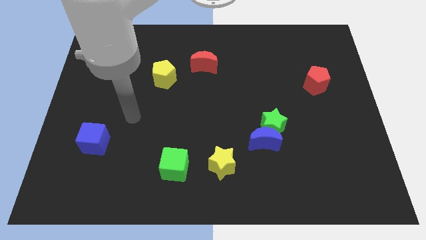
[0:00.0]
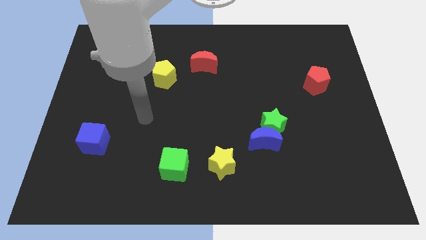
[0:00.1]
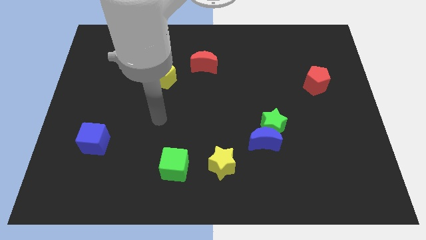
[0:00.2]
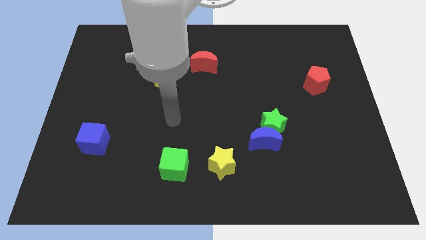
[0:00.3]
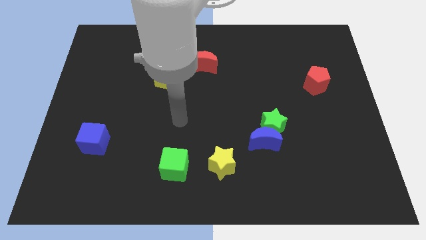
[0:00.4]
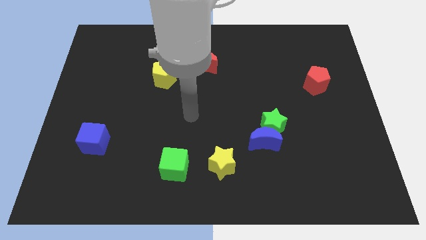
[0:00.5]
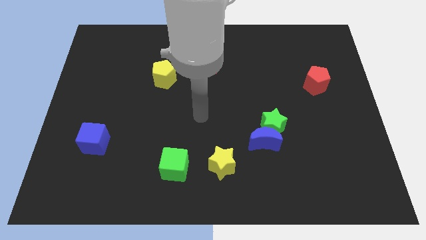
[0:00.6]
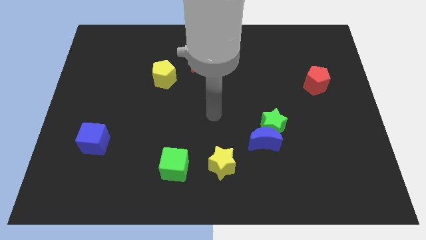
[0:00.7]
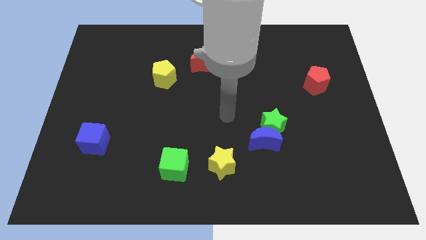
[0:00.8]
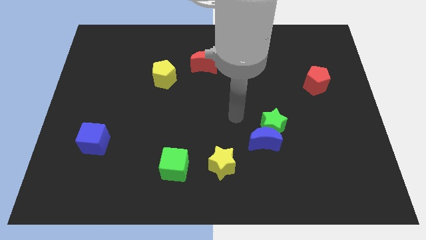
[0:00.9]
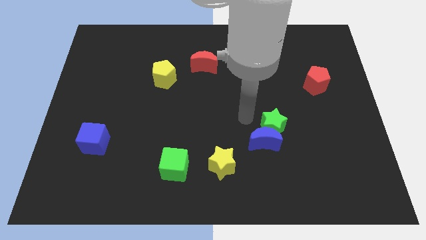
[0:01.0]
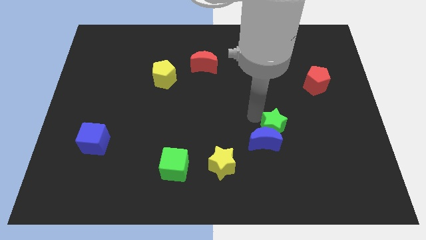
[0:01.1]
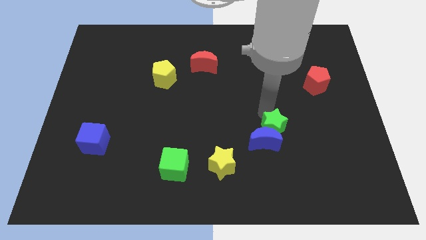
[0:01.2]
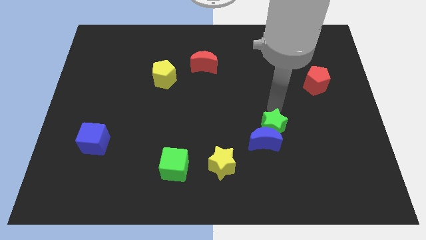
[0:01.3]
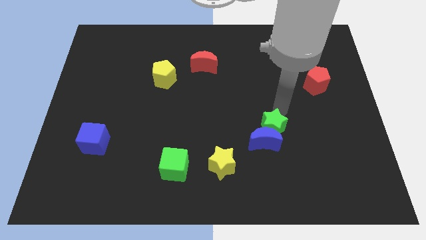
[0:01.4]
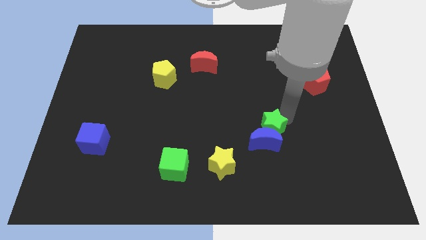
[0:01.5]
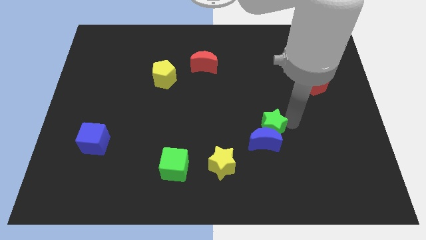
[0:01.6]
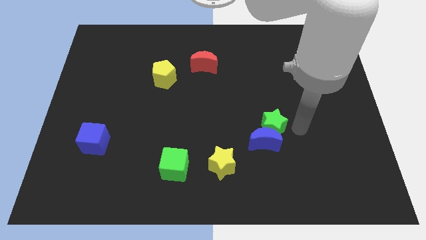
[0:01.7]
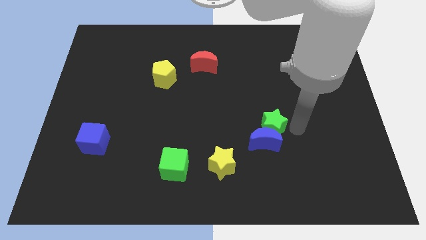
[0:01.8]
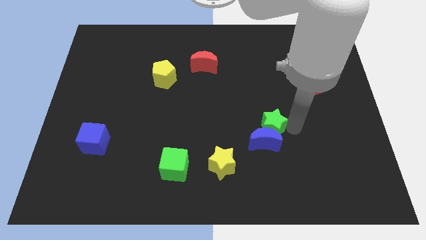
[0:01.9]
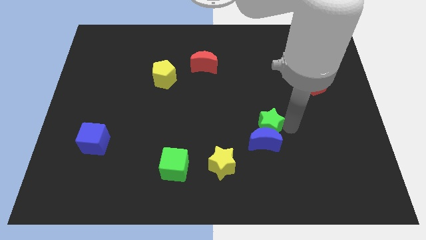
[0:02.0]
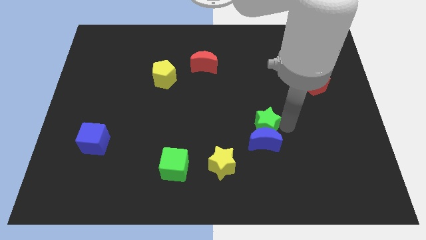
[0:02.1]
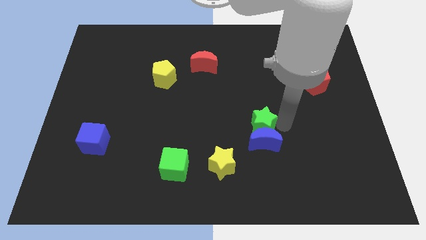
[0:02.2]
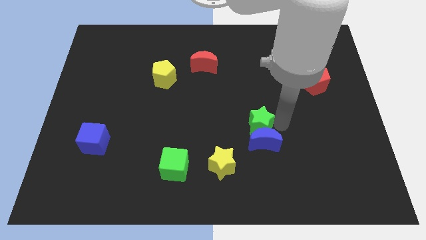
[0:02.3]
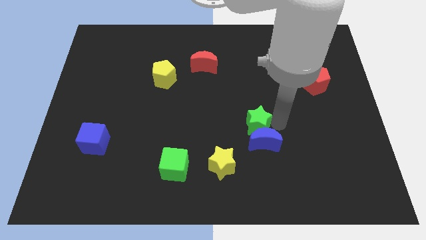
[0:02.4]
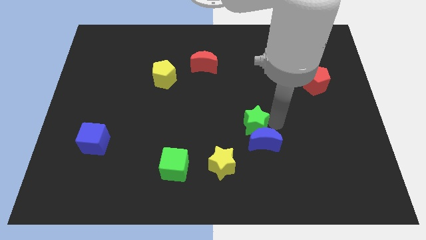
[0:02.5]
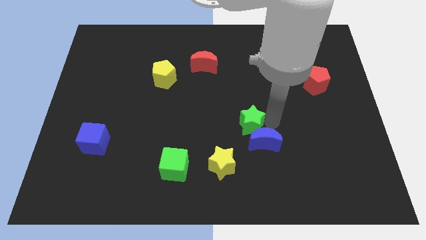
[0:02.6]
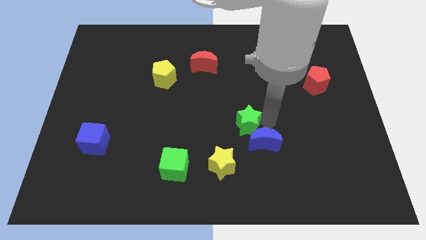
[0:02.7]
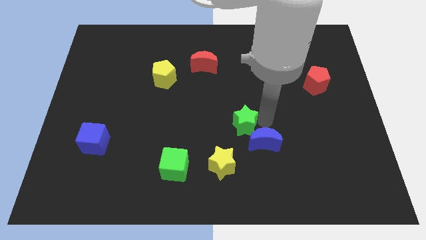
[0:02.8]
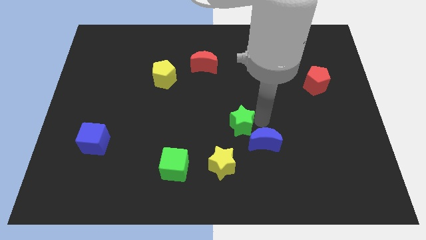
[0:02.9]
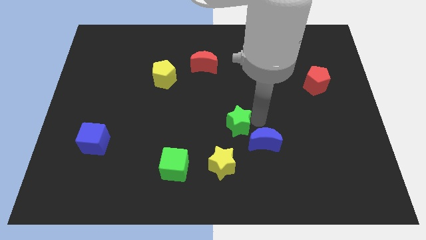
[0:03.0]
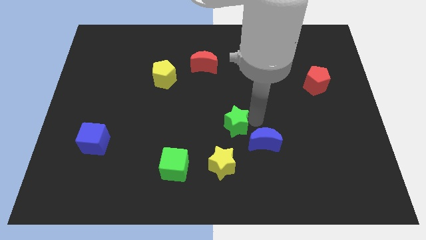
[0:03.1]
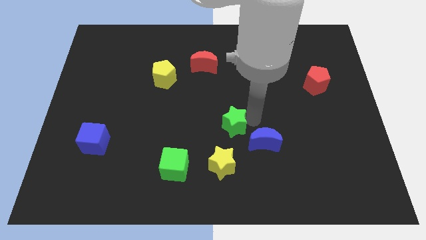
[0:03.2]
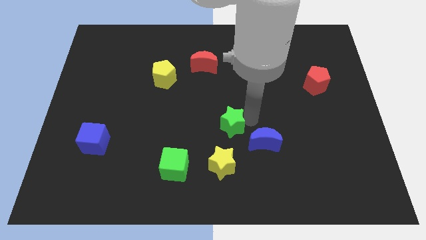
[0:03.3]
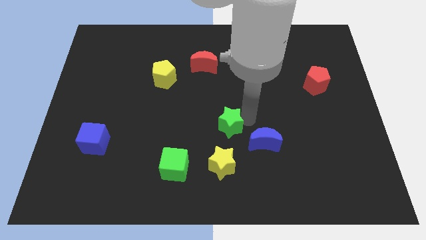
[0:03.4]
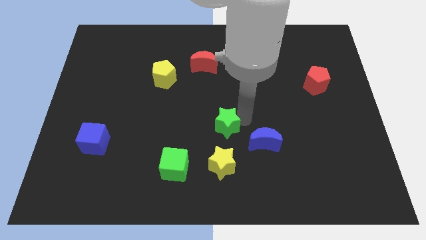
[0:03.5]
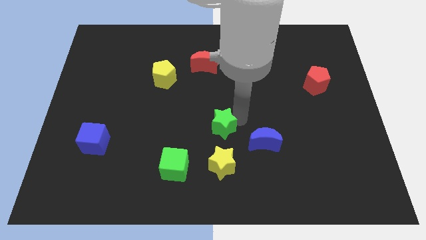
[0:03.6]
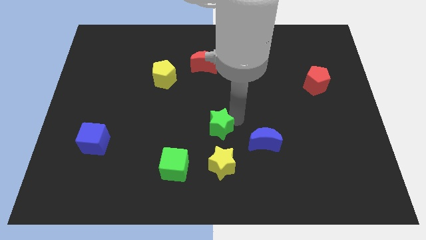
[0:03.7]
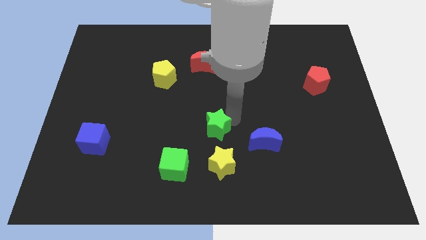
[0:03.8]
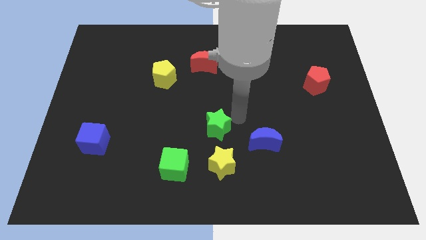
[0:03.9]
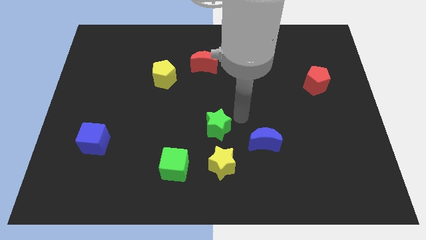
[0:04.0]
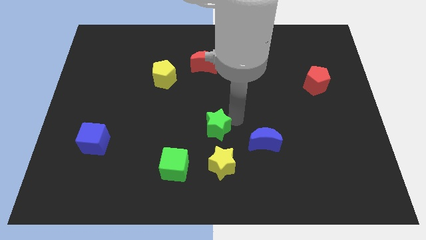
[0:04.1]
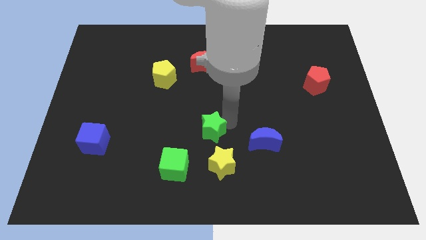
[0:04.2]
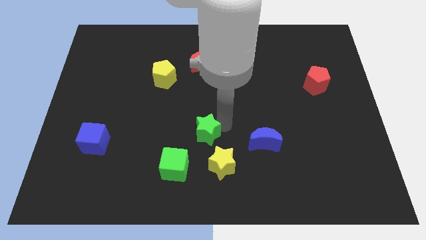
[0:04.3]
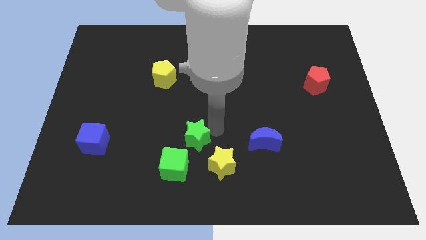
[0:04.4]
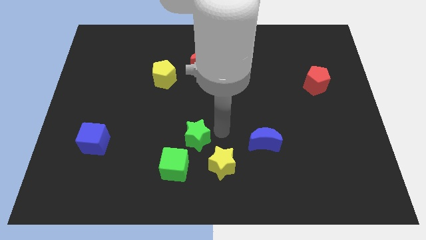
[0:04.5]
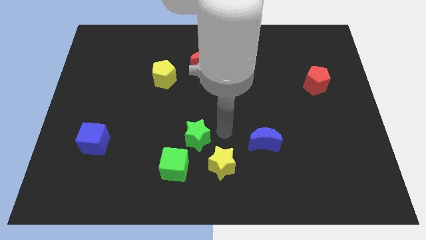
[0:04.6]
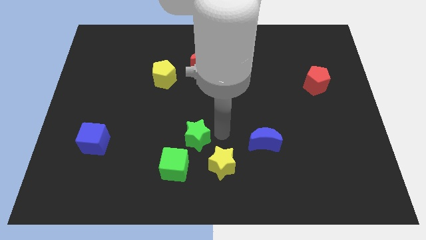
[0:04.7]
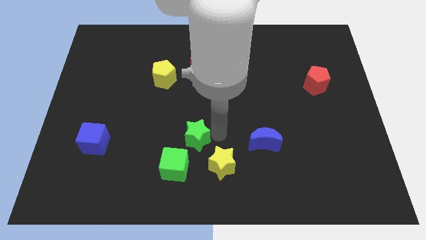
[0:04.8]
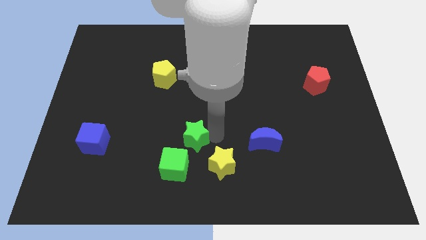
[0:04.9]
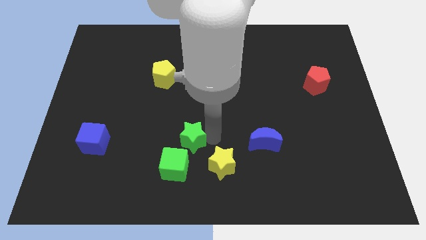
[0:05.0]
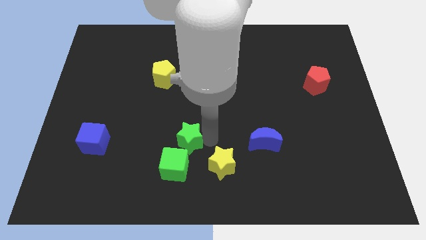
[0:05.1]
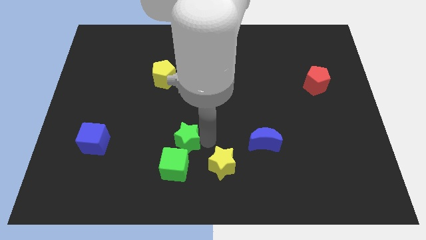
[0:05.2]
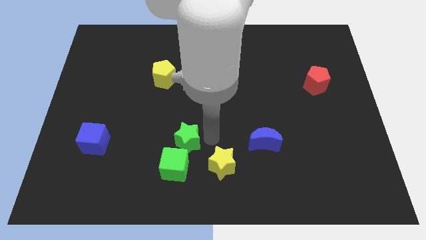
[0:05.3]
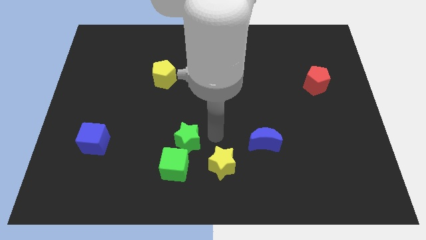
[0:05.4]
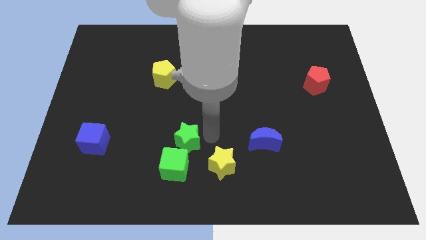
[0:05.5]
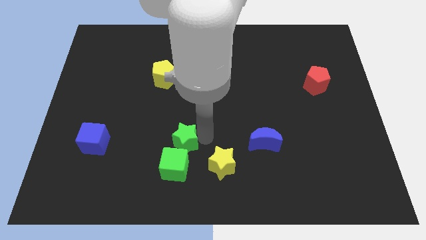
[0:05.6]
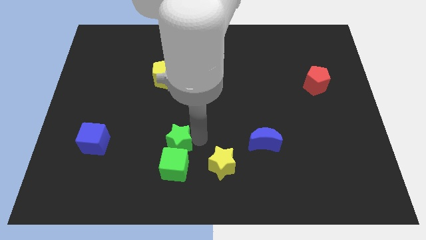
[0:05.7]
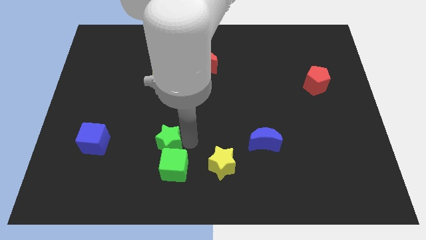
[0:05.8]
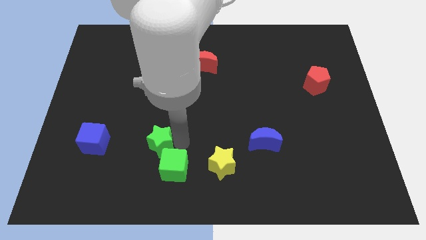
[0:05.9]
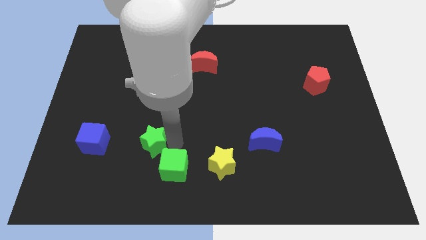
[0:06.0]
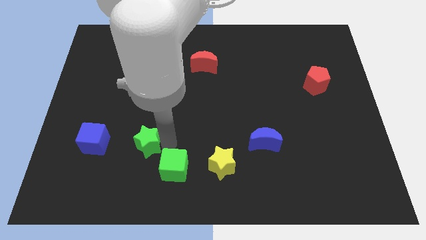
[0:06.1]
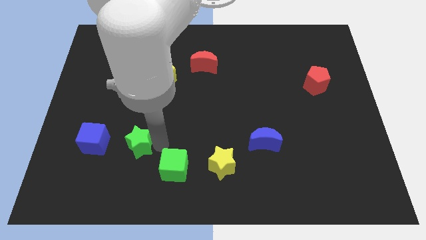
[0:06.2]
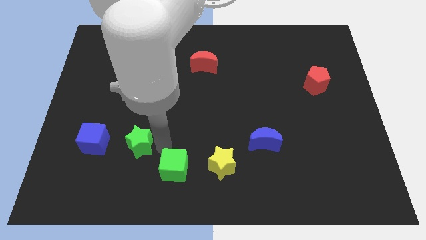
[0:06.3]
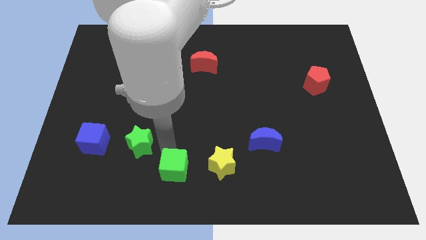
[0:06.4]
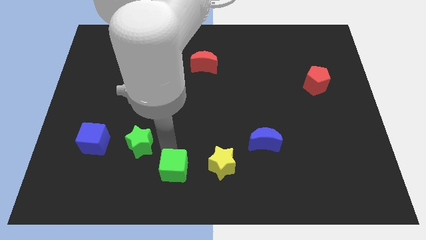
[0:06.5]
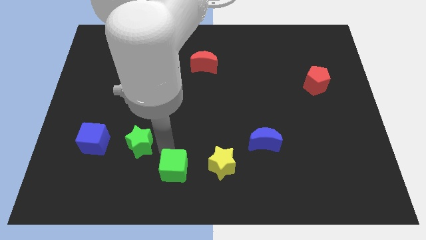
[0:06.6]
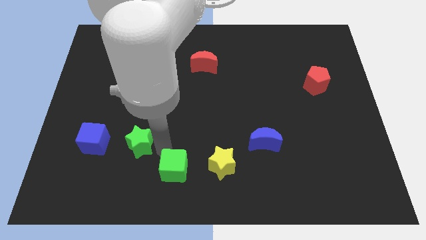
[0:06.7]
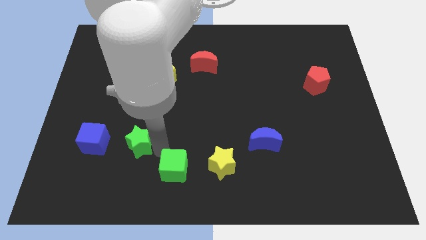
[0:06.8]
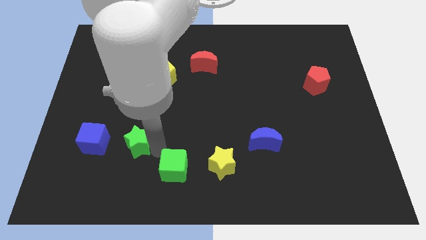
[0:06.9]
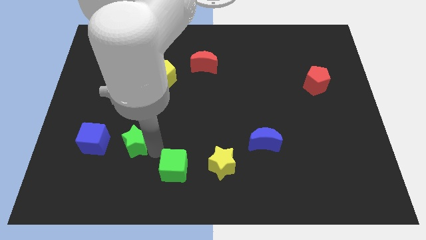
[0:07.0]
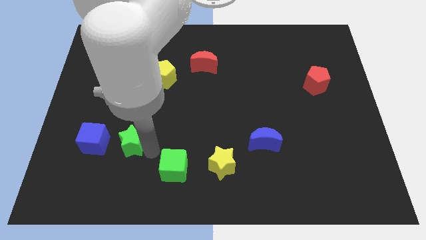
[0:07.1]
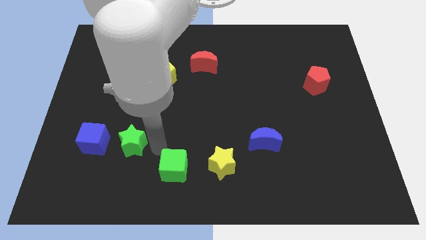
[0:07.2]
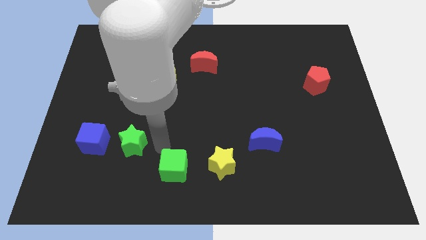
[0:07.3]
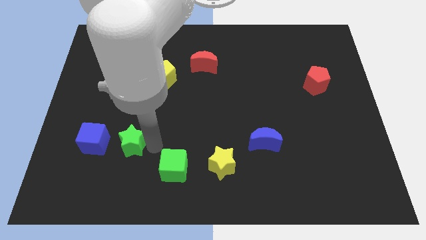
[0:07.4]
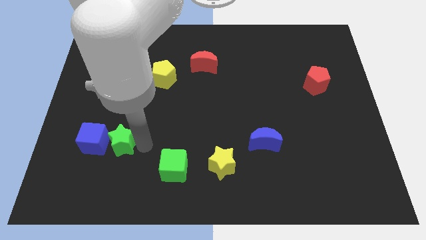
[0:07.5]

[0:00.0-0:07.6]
move the green star close to the blue cube

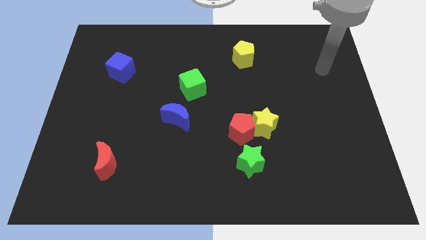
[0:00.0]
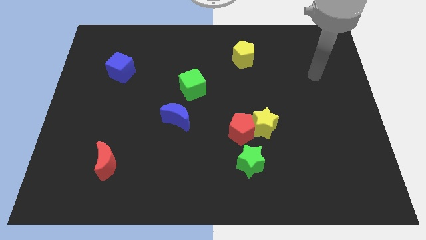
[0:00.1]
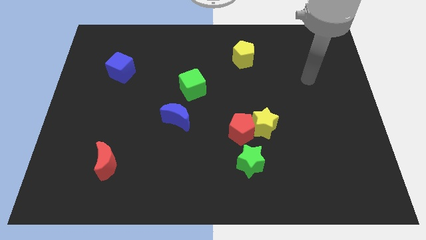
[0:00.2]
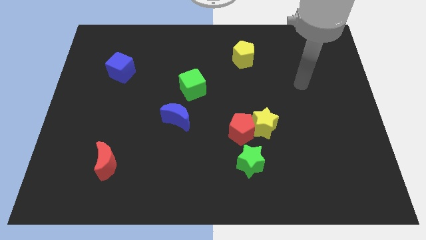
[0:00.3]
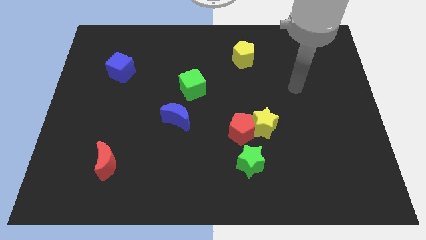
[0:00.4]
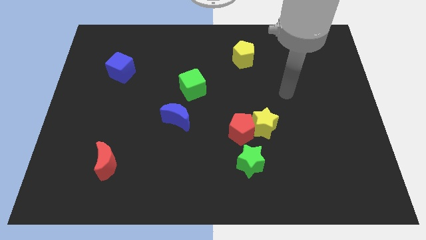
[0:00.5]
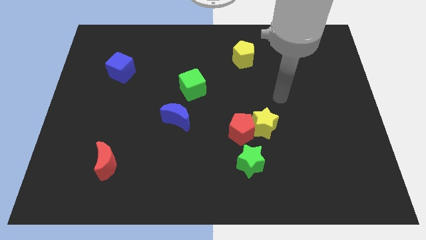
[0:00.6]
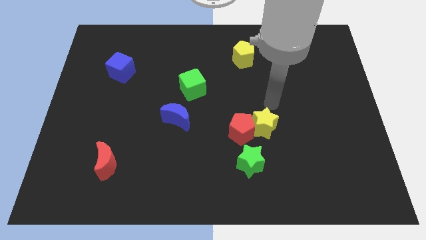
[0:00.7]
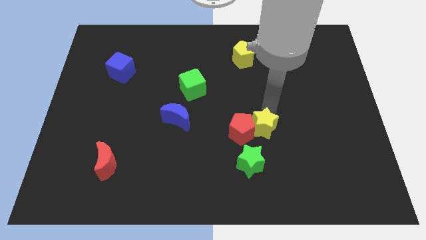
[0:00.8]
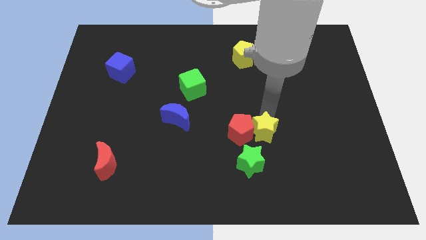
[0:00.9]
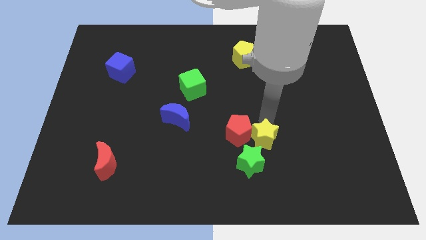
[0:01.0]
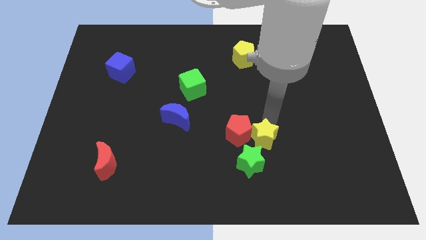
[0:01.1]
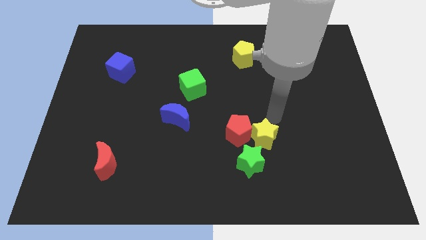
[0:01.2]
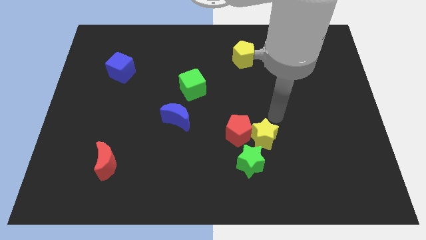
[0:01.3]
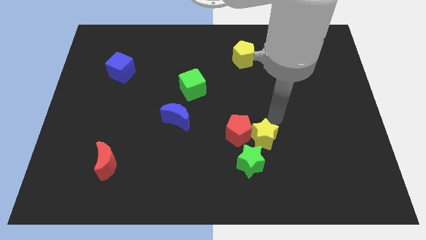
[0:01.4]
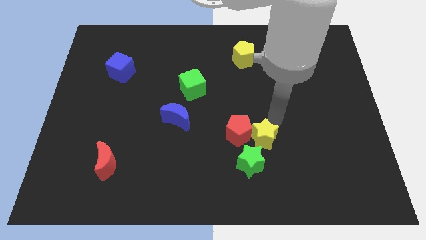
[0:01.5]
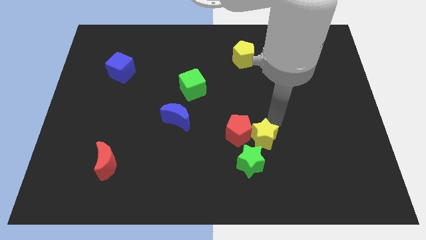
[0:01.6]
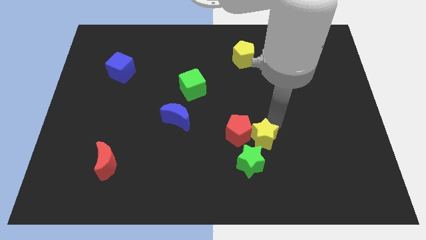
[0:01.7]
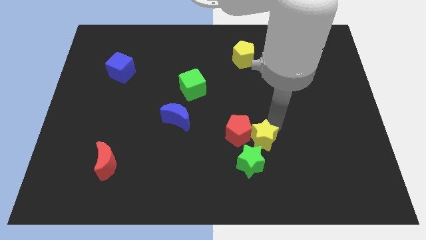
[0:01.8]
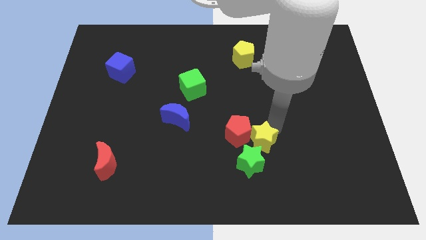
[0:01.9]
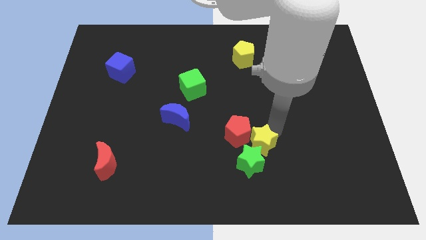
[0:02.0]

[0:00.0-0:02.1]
push the yellow star towards the green star
